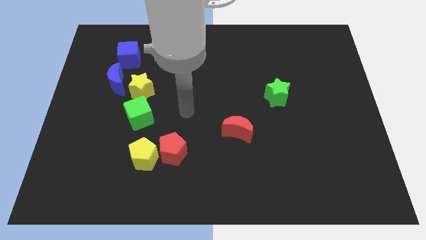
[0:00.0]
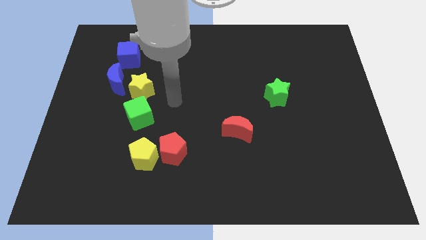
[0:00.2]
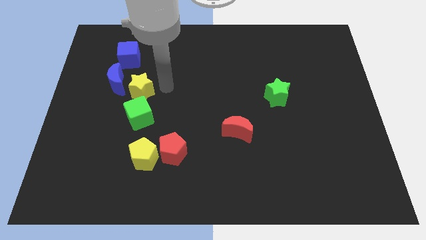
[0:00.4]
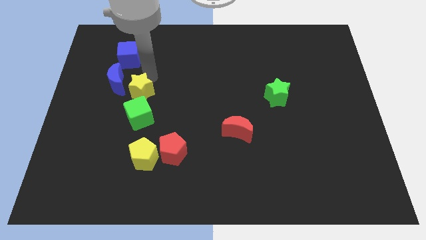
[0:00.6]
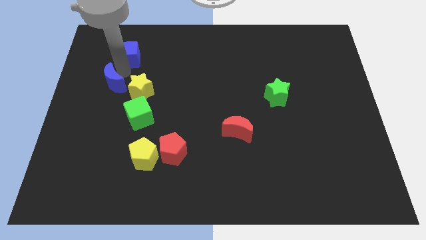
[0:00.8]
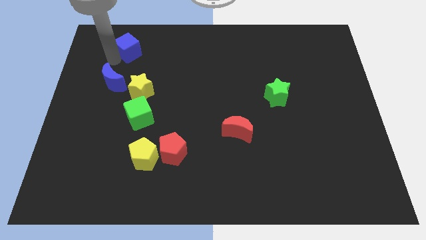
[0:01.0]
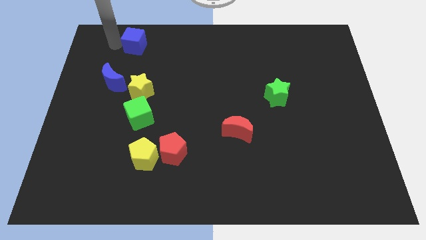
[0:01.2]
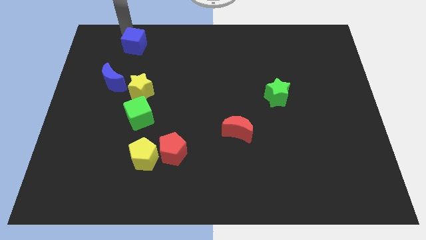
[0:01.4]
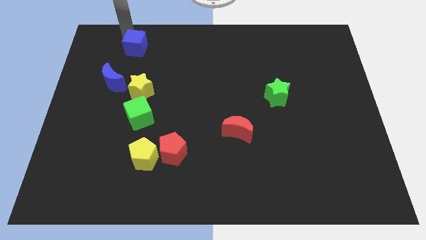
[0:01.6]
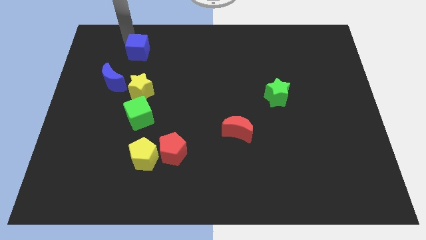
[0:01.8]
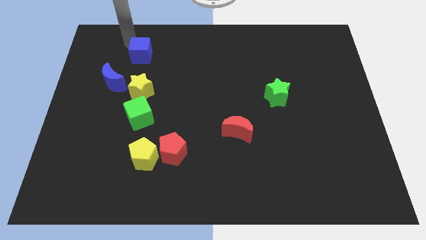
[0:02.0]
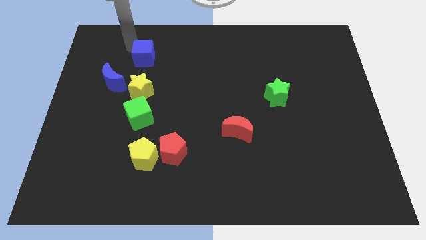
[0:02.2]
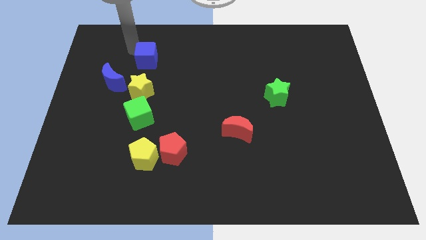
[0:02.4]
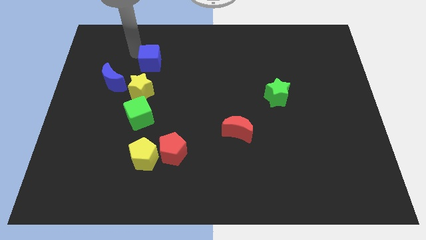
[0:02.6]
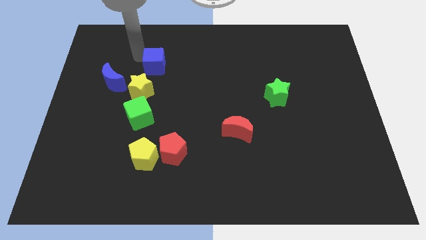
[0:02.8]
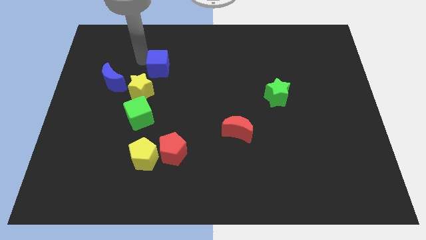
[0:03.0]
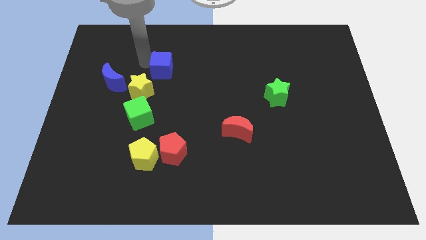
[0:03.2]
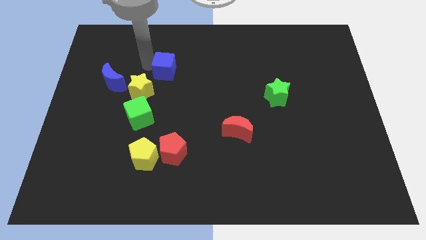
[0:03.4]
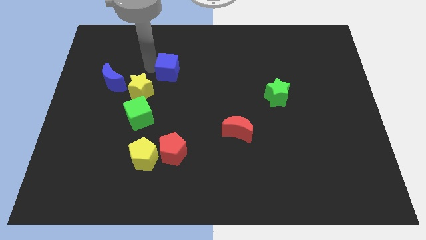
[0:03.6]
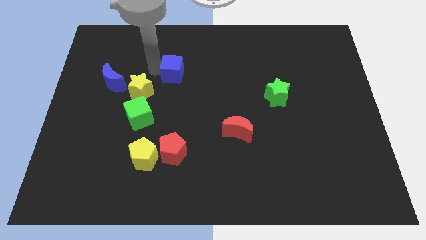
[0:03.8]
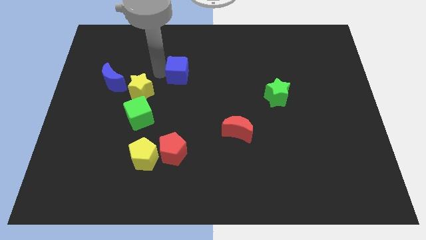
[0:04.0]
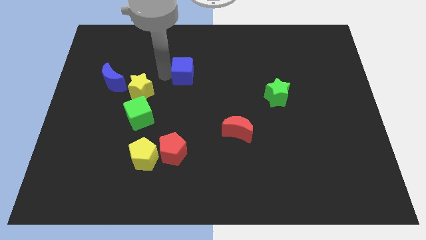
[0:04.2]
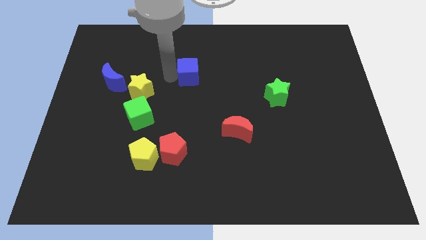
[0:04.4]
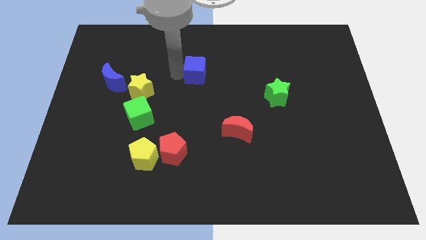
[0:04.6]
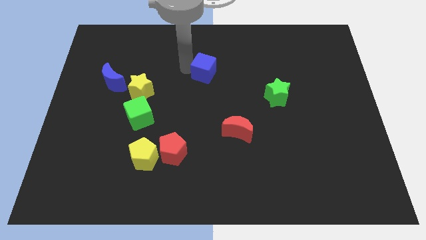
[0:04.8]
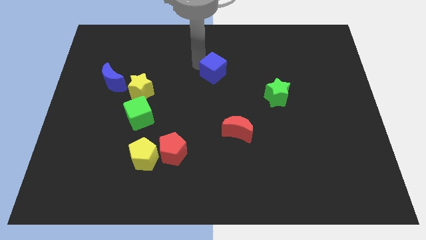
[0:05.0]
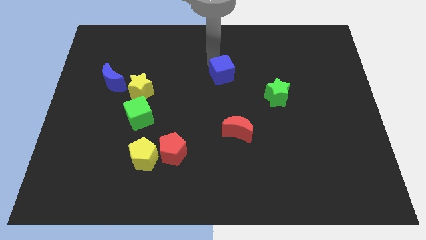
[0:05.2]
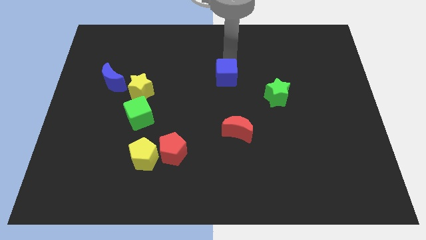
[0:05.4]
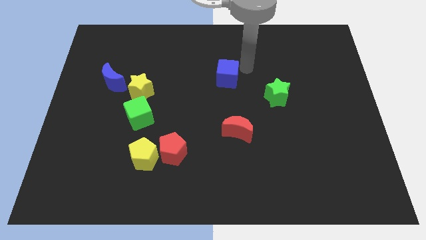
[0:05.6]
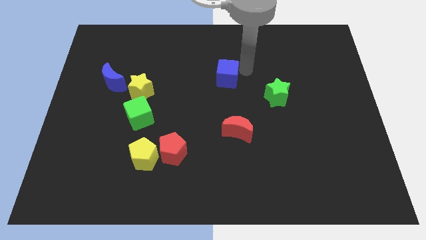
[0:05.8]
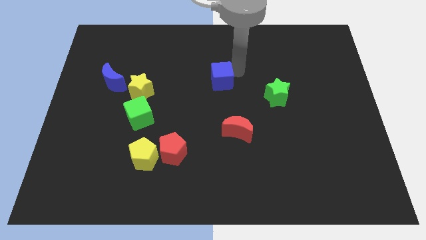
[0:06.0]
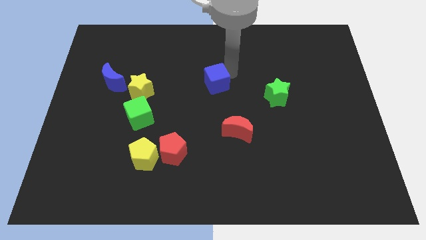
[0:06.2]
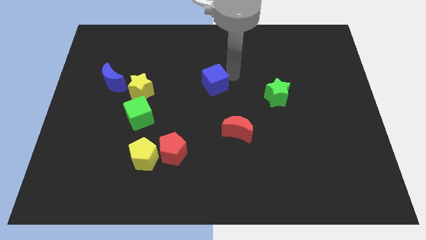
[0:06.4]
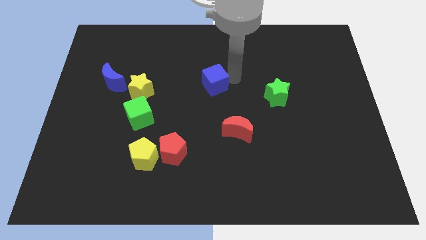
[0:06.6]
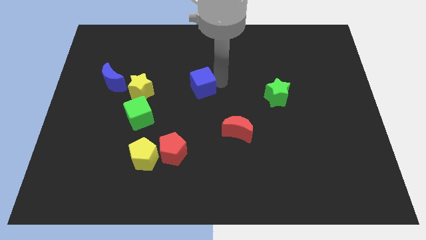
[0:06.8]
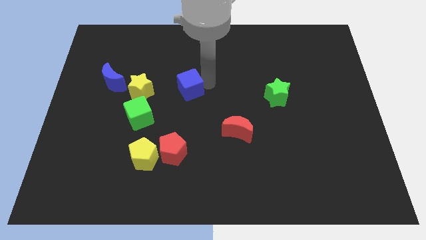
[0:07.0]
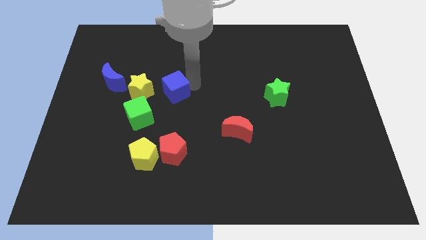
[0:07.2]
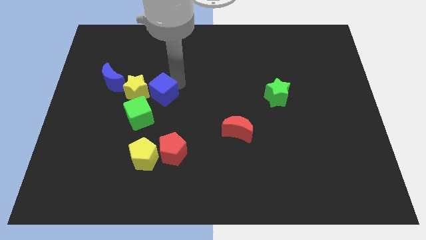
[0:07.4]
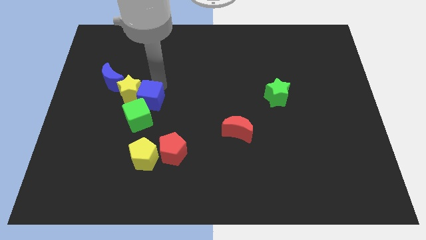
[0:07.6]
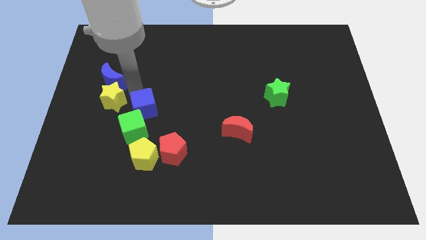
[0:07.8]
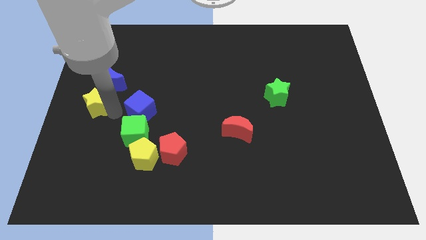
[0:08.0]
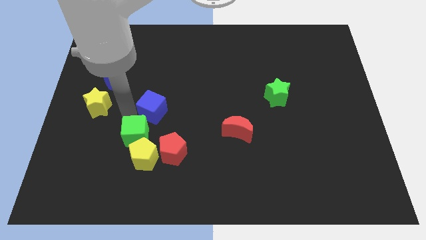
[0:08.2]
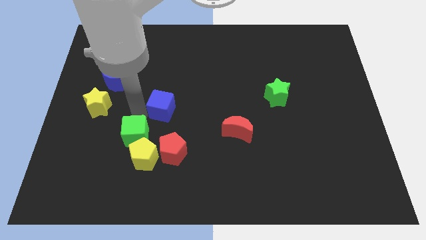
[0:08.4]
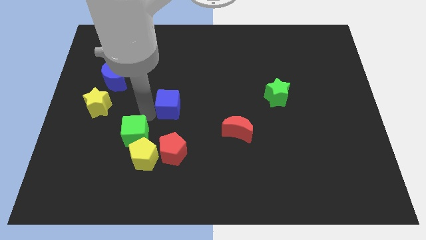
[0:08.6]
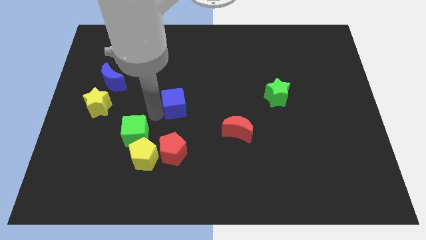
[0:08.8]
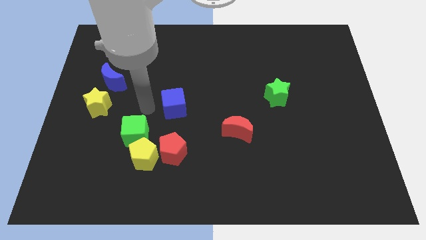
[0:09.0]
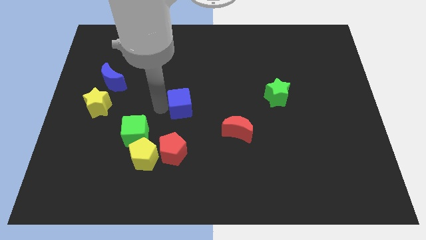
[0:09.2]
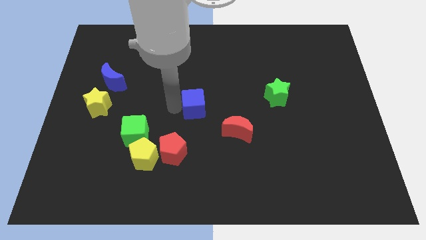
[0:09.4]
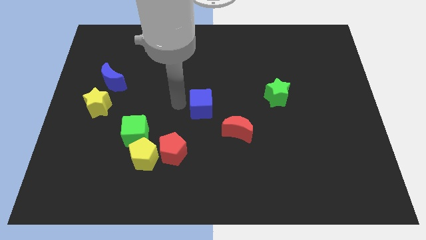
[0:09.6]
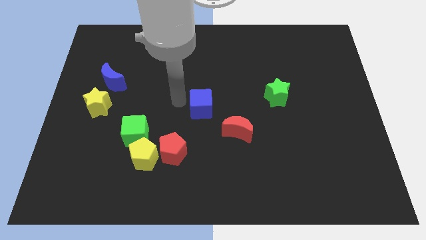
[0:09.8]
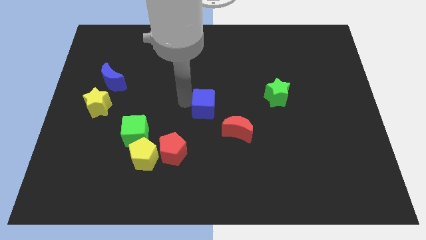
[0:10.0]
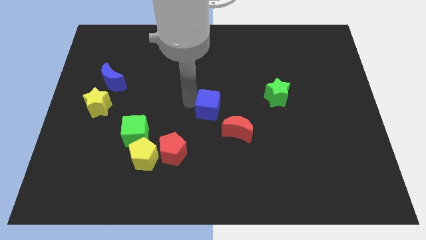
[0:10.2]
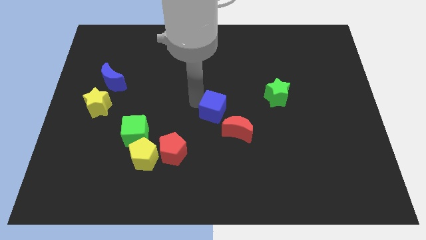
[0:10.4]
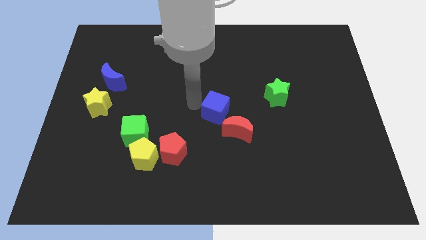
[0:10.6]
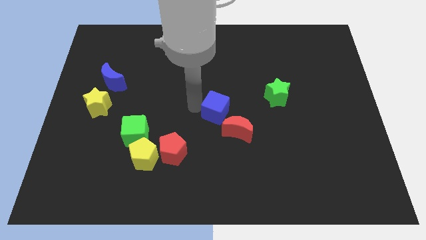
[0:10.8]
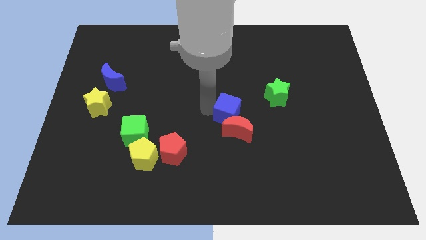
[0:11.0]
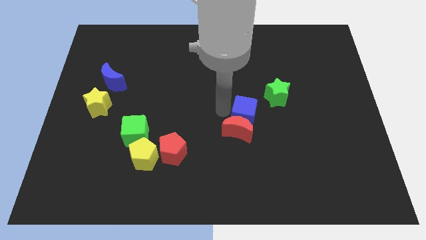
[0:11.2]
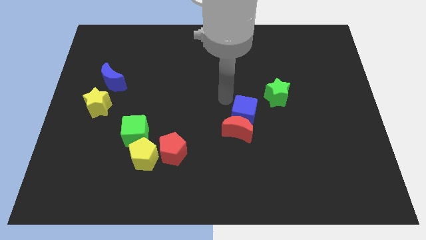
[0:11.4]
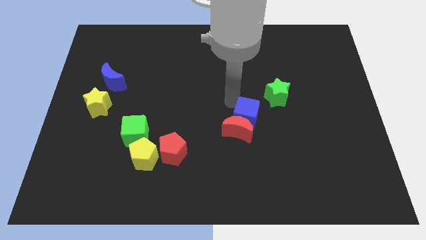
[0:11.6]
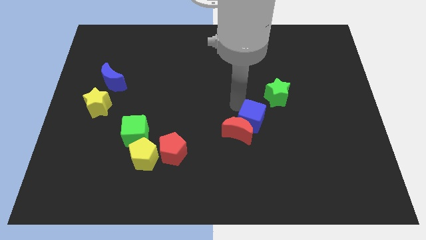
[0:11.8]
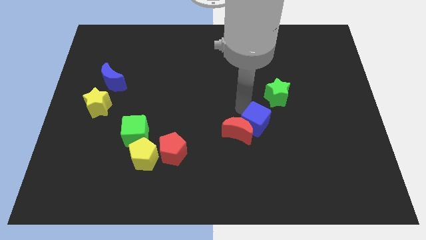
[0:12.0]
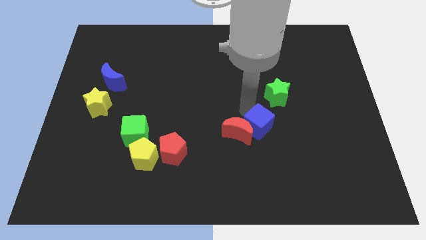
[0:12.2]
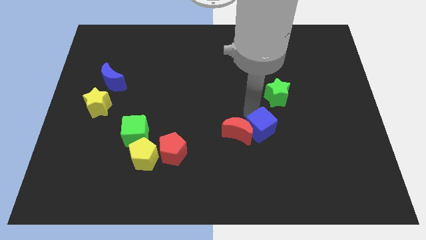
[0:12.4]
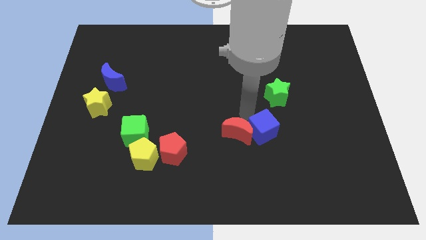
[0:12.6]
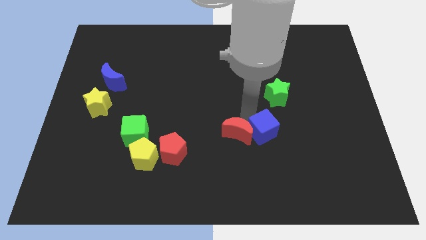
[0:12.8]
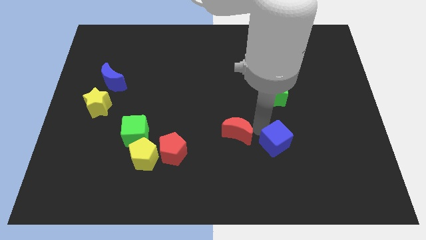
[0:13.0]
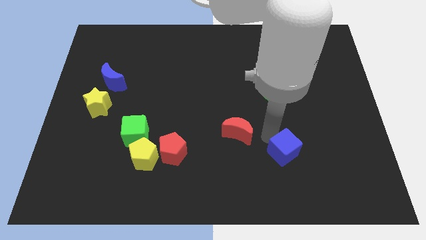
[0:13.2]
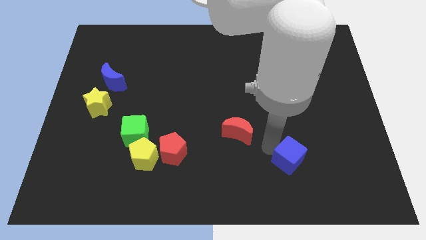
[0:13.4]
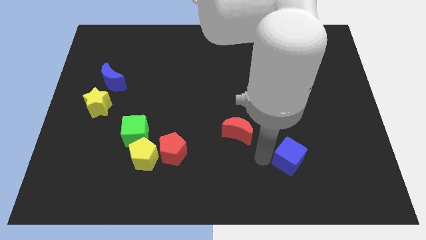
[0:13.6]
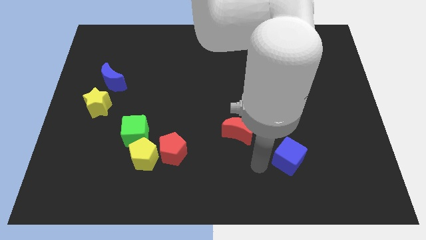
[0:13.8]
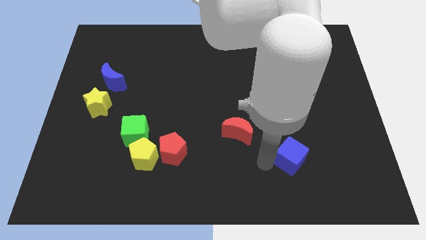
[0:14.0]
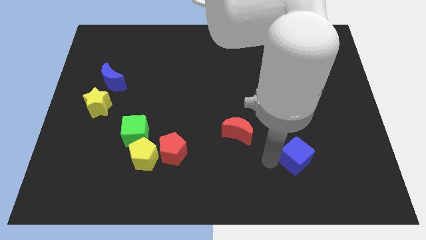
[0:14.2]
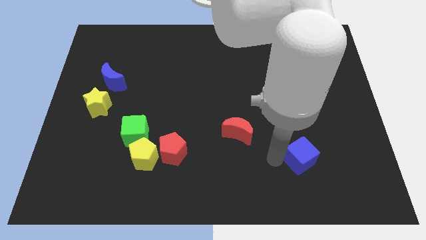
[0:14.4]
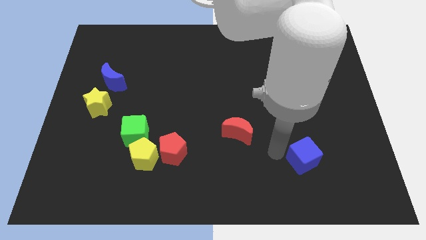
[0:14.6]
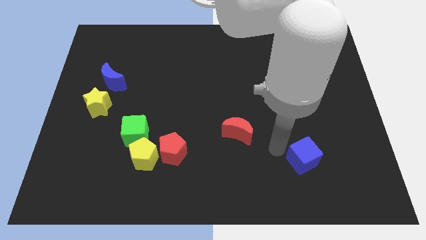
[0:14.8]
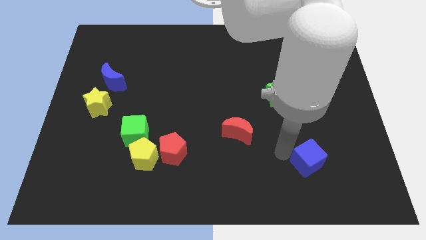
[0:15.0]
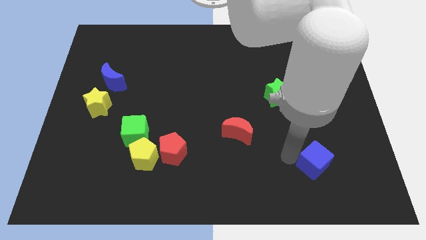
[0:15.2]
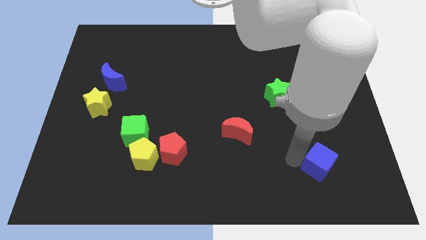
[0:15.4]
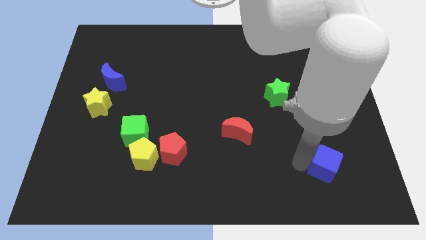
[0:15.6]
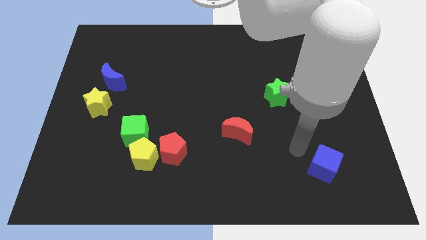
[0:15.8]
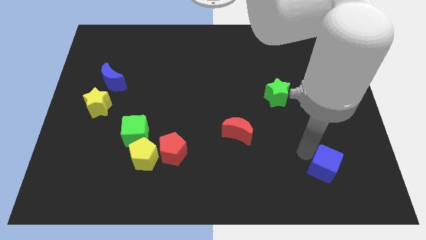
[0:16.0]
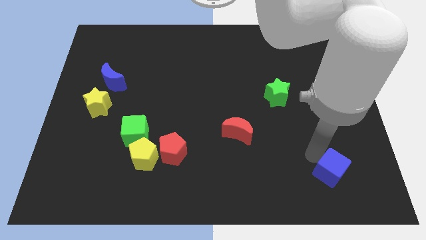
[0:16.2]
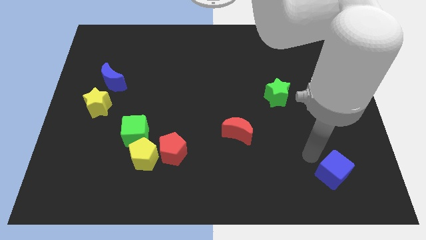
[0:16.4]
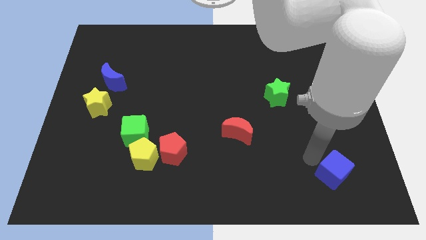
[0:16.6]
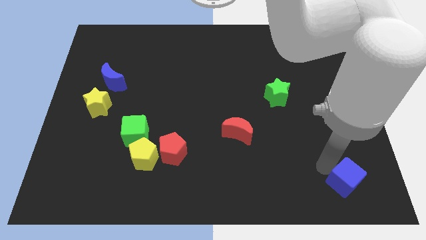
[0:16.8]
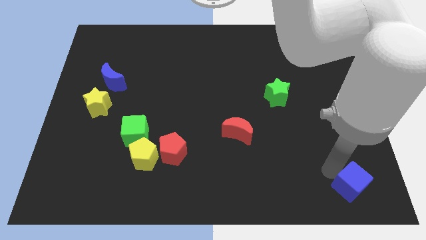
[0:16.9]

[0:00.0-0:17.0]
put the blue cube to the bottom right corner
